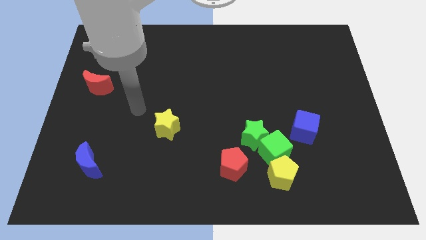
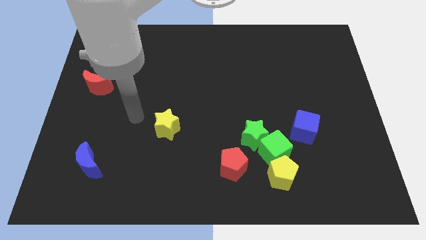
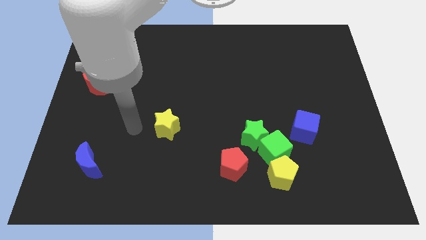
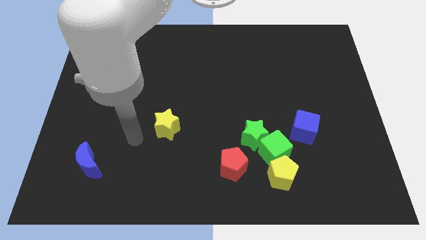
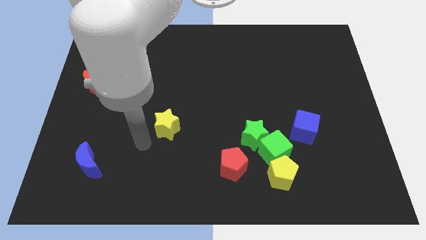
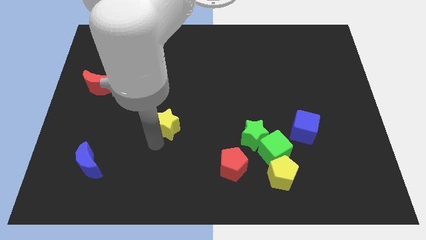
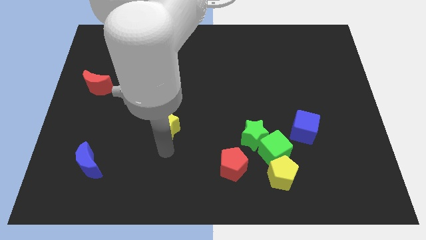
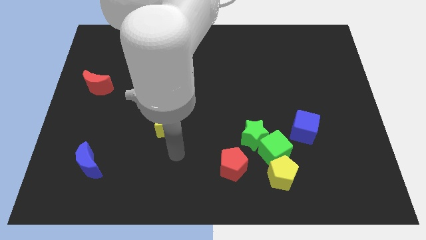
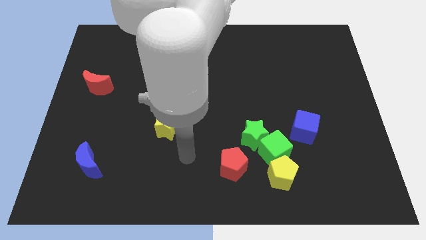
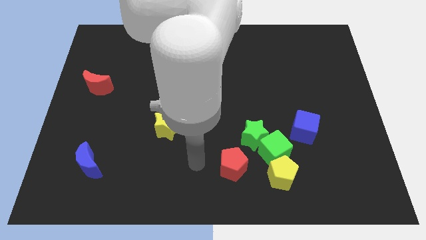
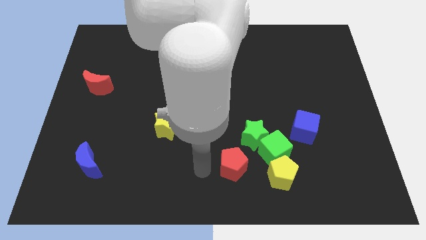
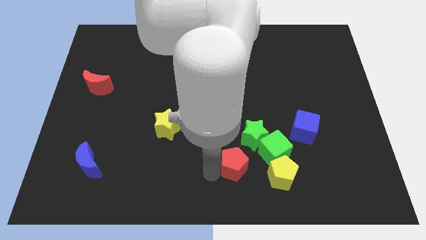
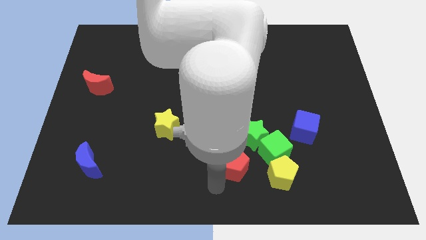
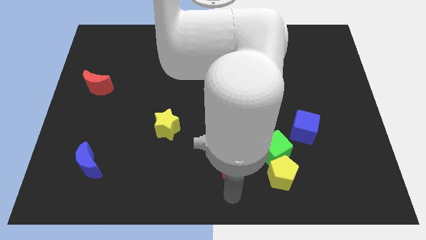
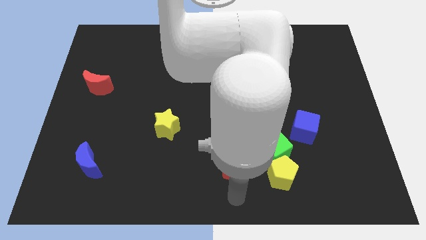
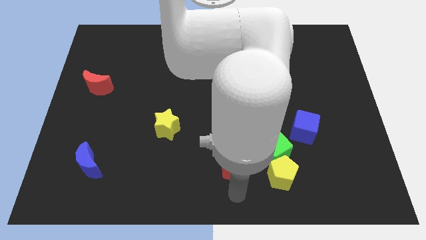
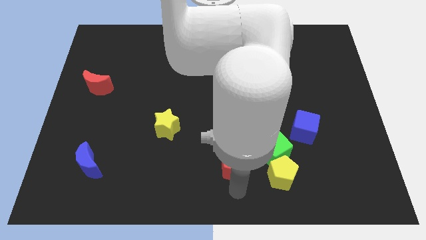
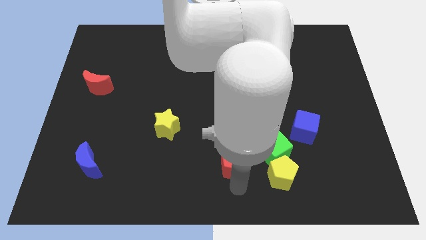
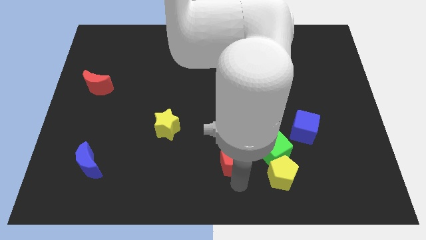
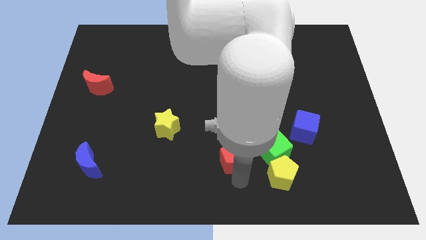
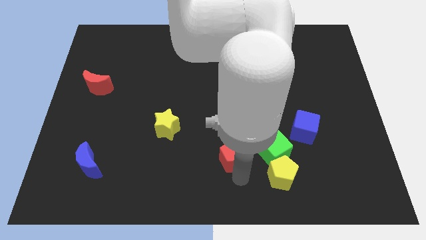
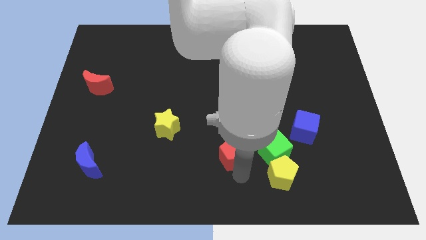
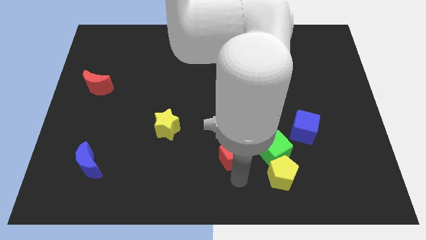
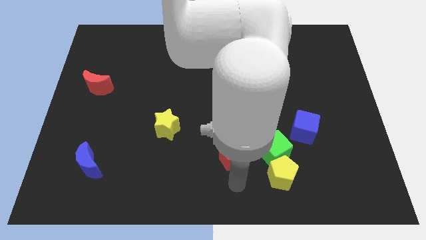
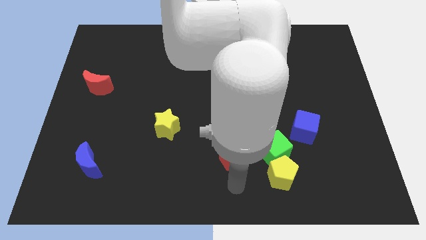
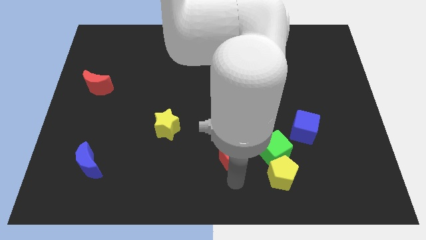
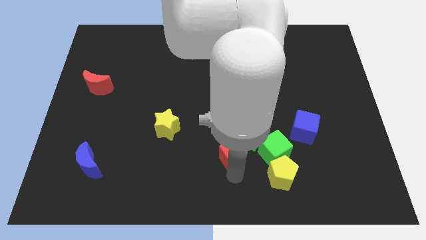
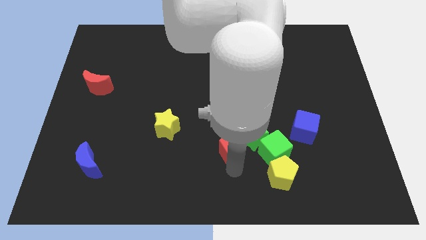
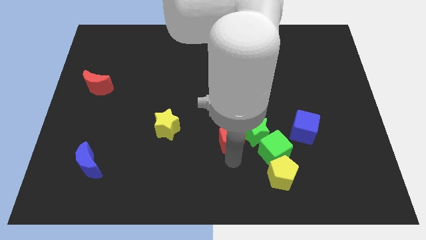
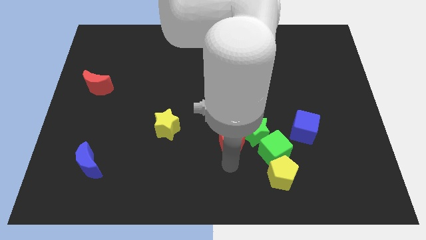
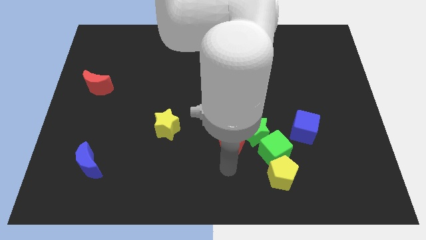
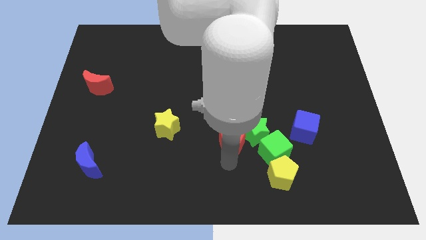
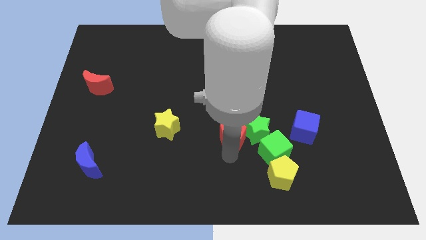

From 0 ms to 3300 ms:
move the red pentagon upwards slightly

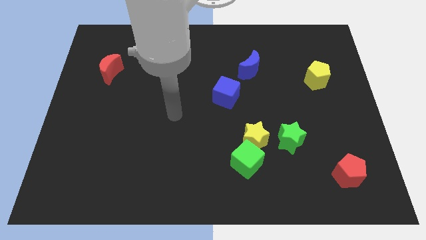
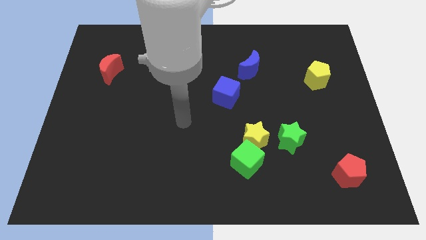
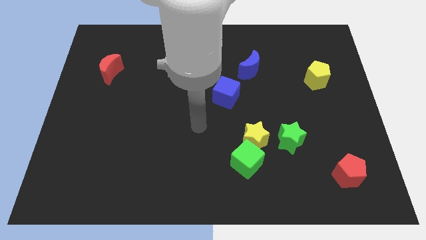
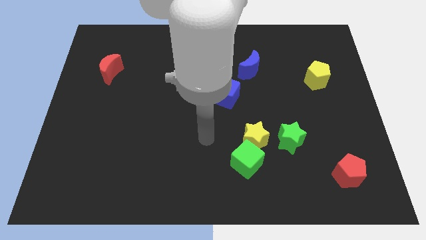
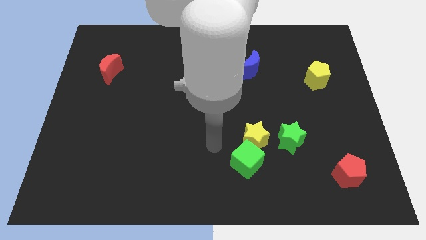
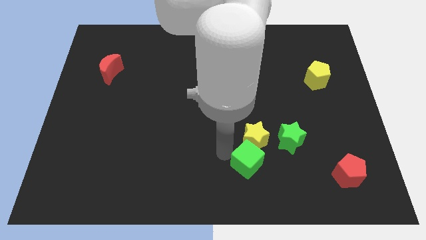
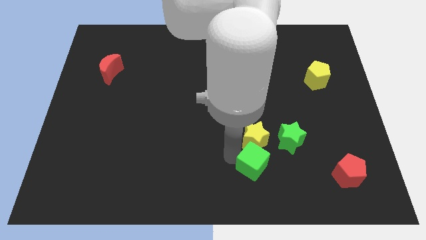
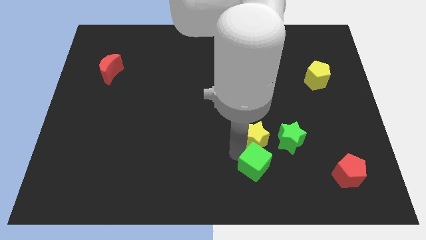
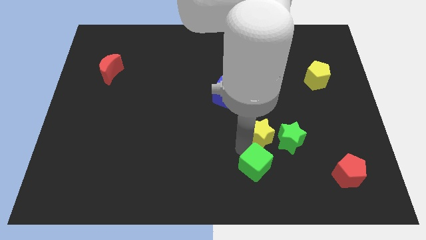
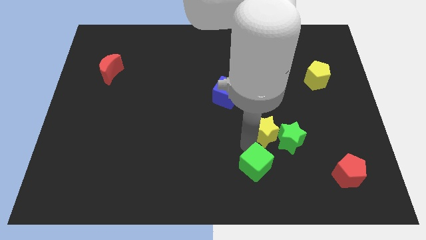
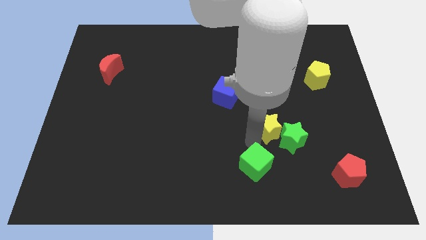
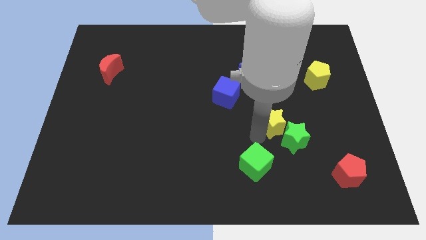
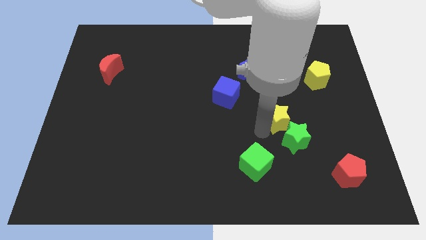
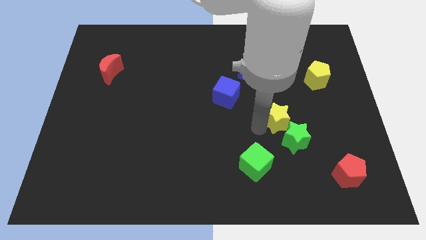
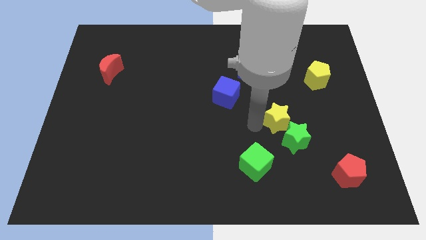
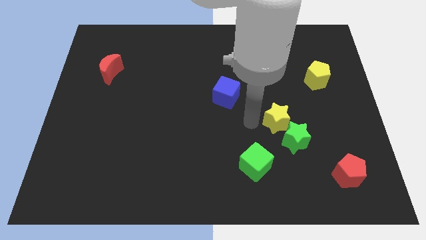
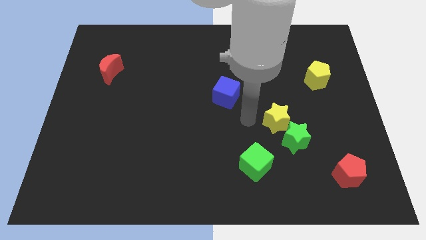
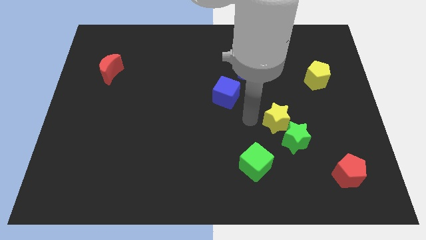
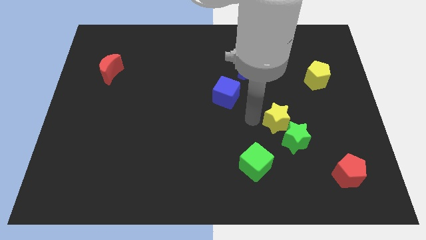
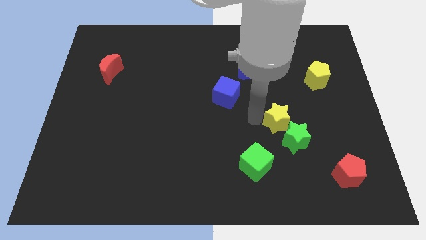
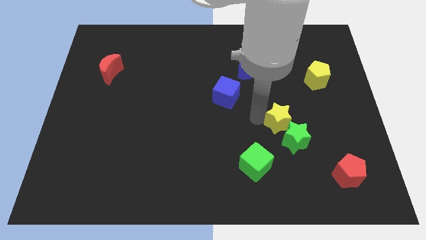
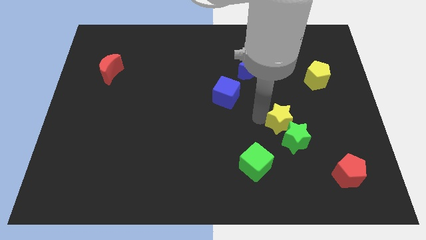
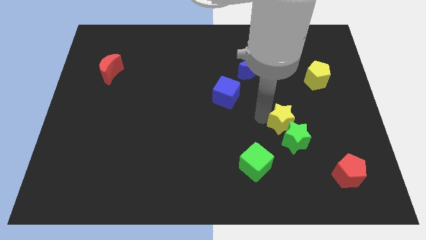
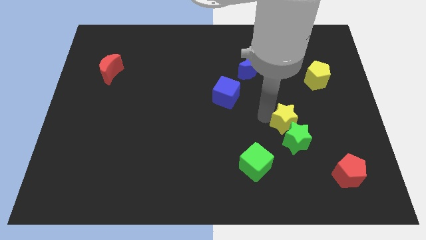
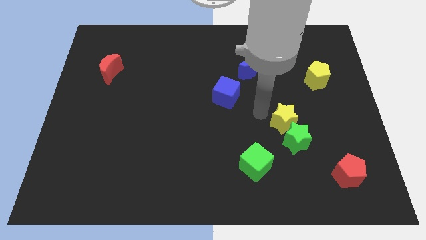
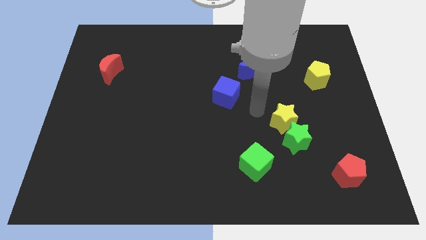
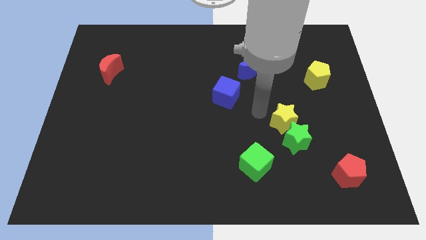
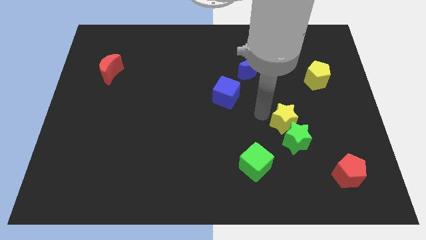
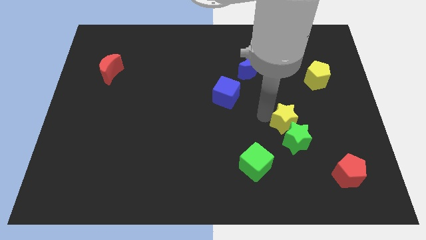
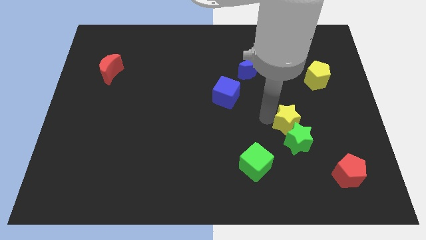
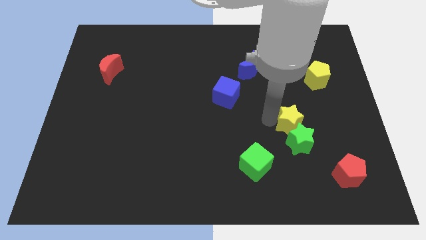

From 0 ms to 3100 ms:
slide the yellow star a bit to the right

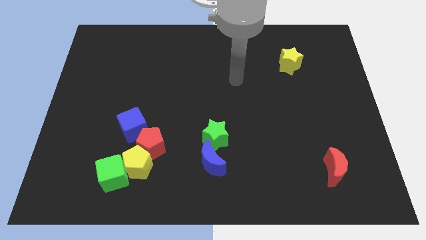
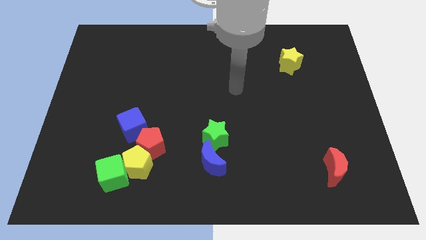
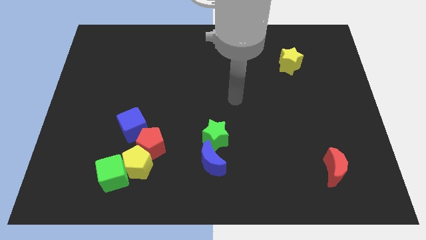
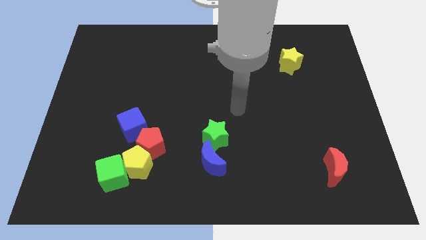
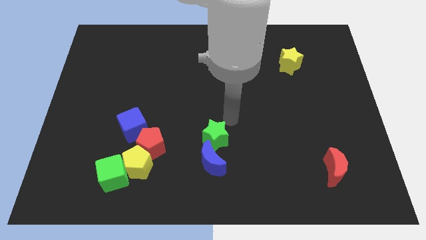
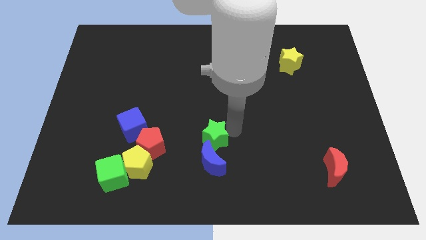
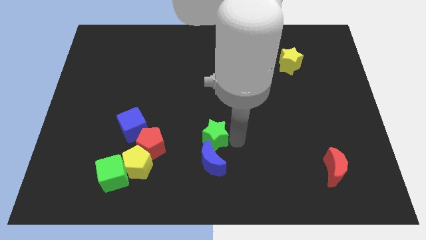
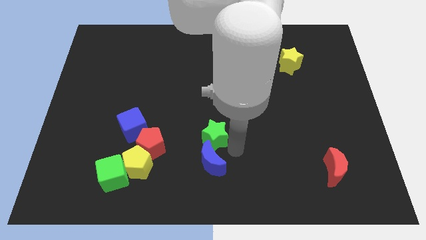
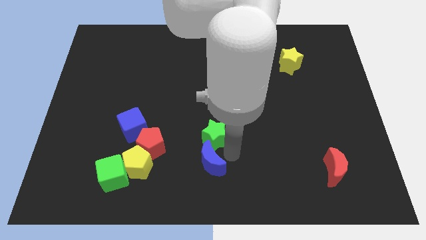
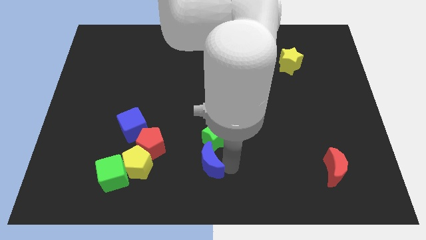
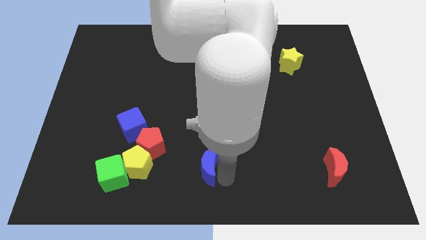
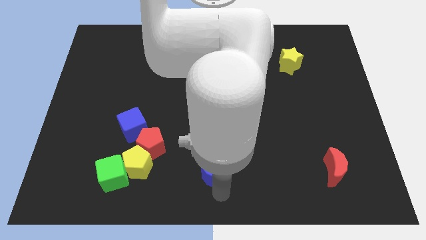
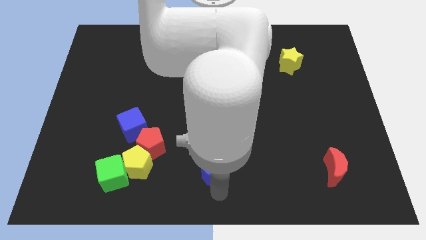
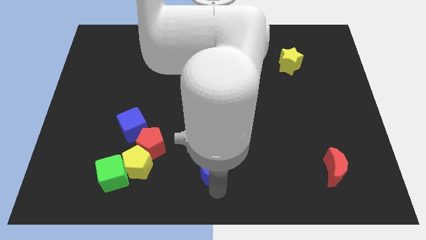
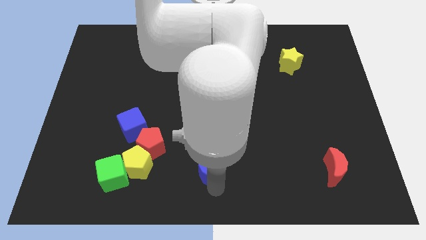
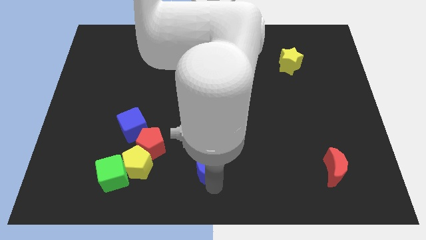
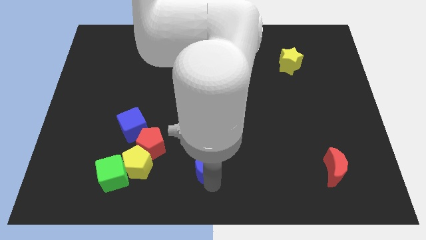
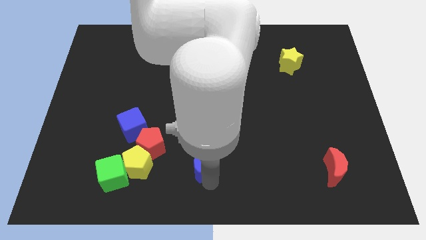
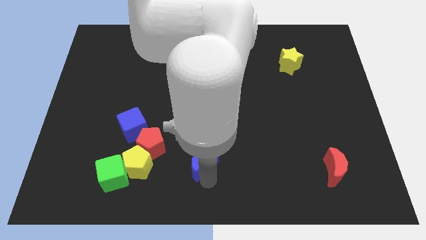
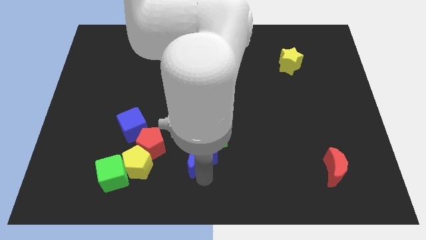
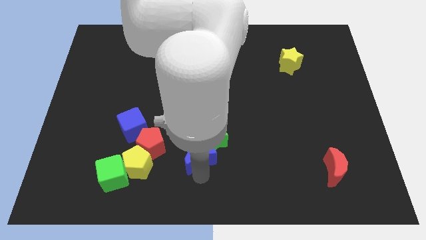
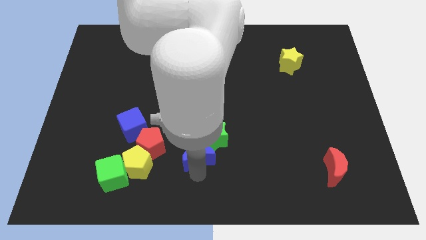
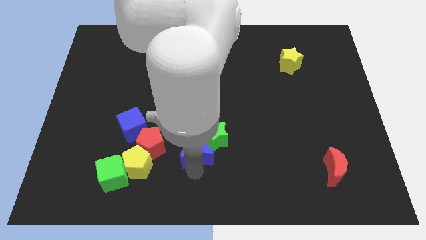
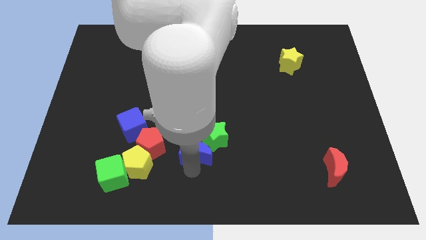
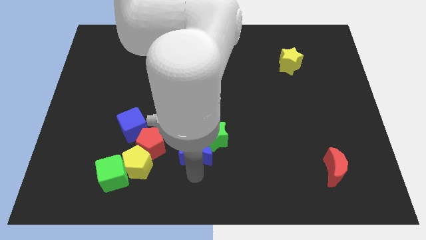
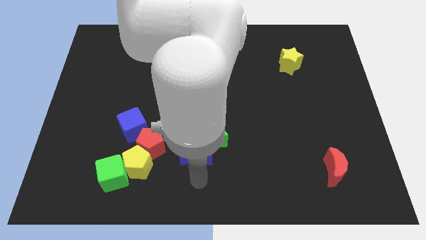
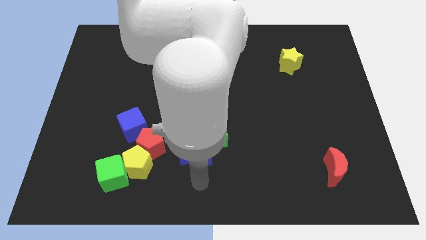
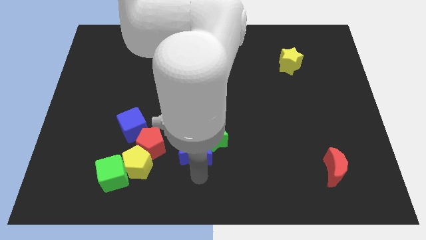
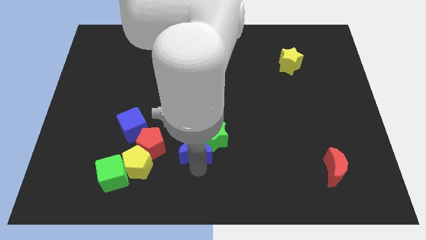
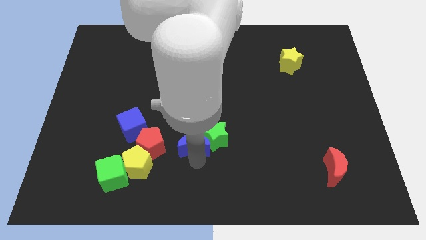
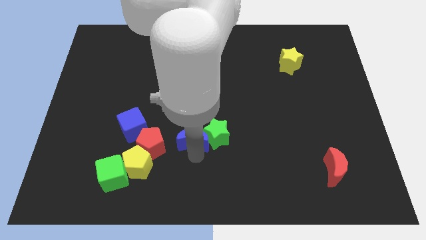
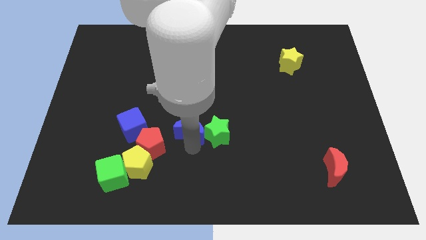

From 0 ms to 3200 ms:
push the blue moon a bit up
